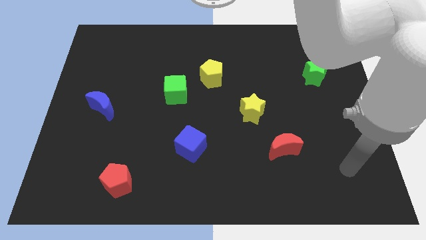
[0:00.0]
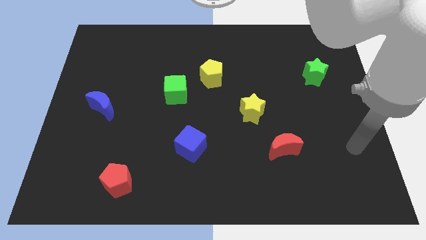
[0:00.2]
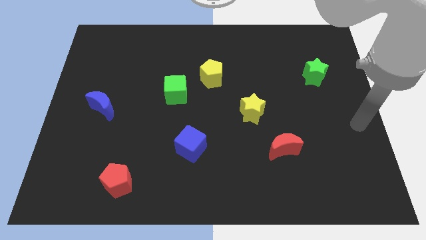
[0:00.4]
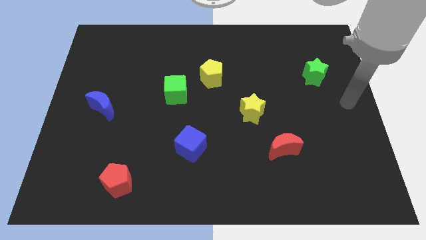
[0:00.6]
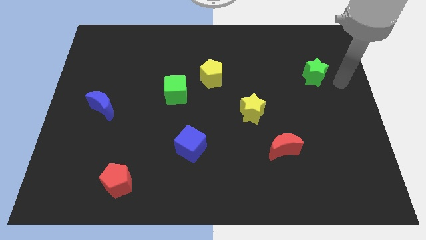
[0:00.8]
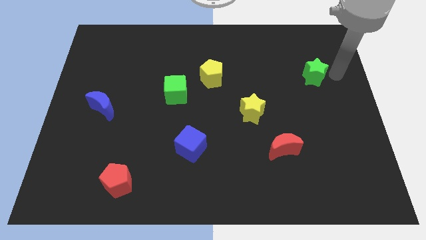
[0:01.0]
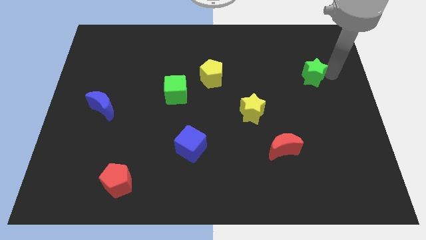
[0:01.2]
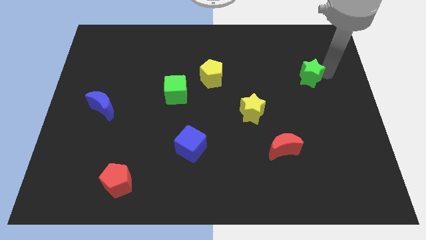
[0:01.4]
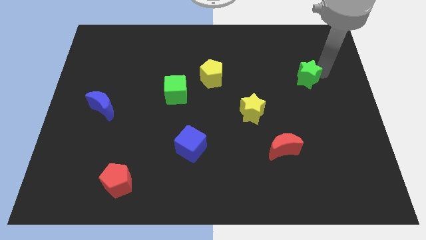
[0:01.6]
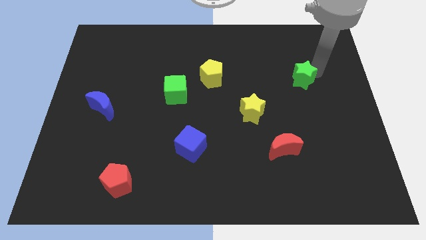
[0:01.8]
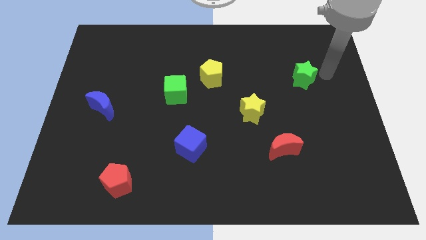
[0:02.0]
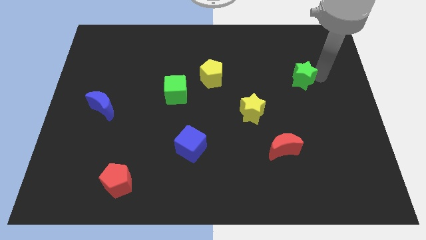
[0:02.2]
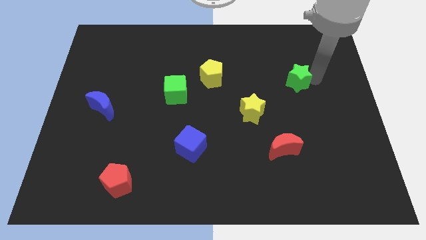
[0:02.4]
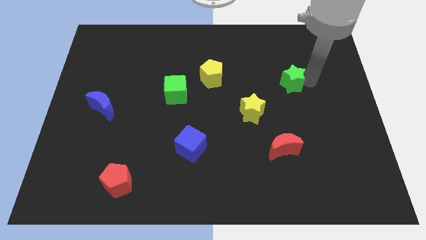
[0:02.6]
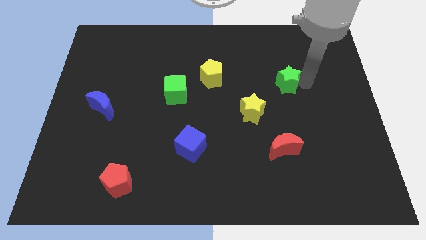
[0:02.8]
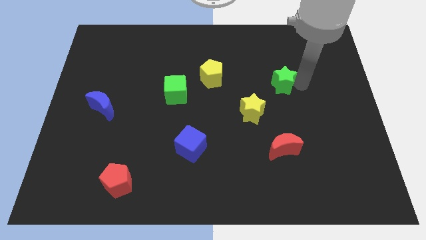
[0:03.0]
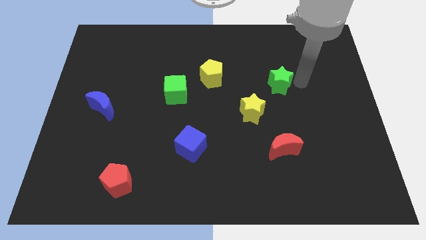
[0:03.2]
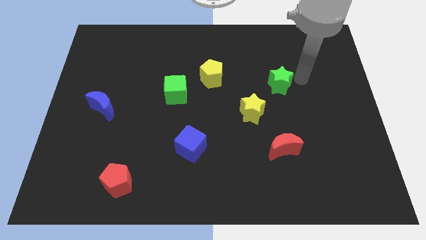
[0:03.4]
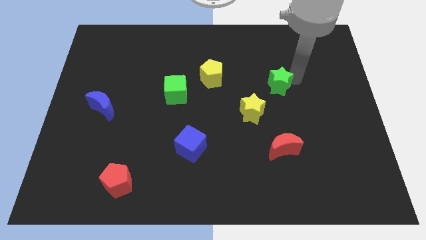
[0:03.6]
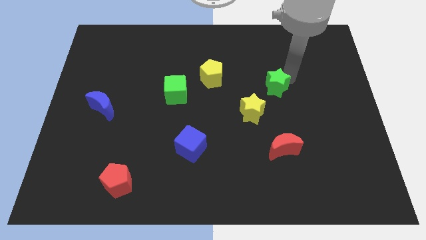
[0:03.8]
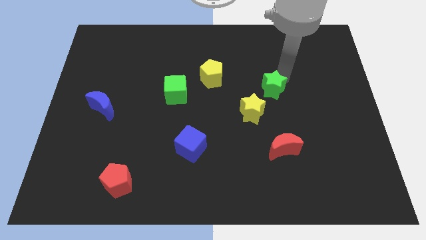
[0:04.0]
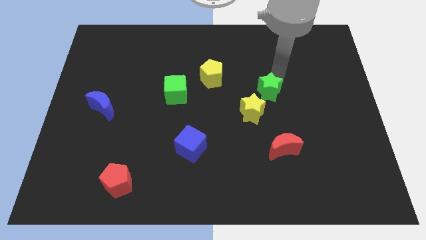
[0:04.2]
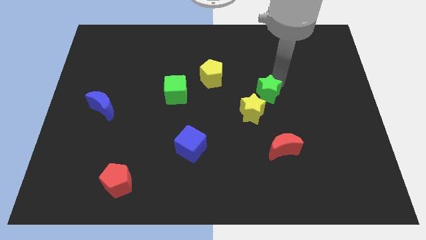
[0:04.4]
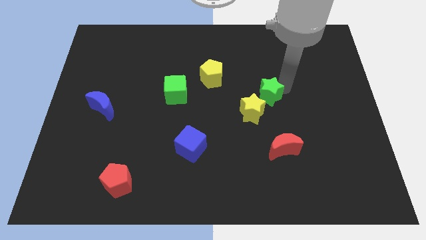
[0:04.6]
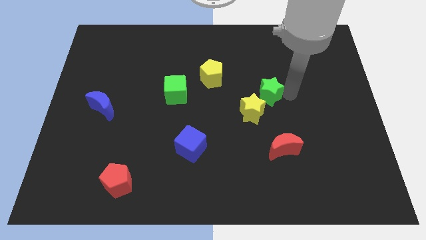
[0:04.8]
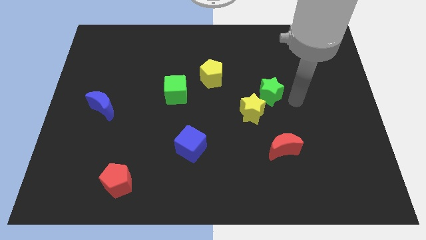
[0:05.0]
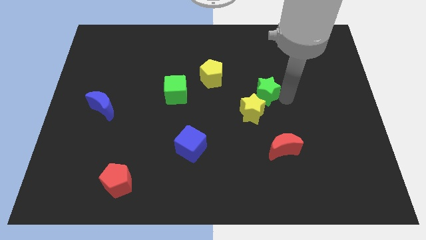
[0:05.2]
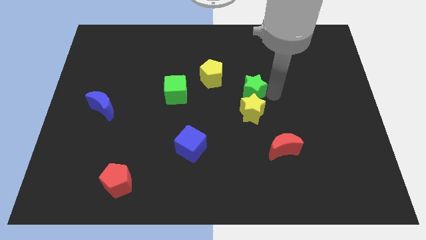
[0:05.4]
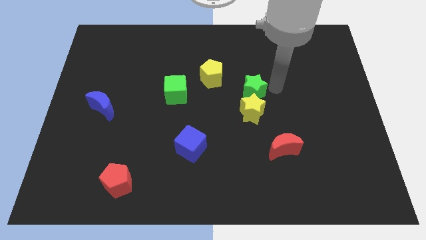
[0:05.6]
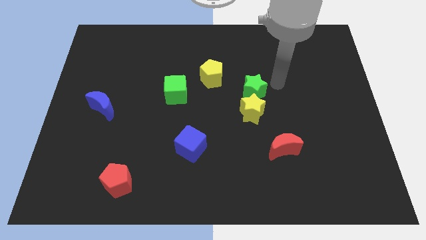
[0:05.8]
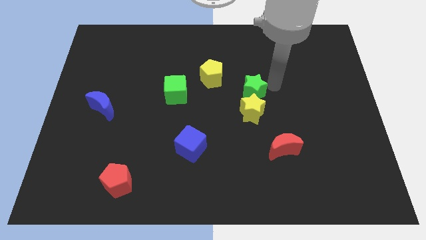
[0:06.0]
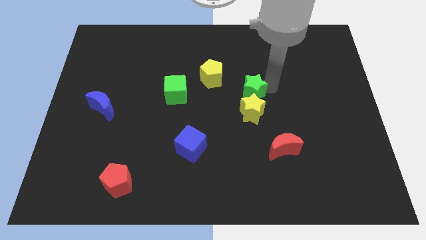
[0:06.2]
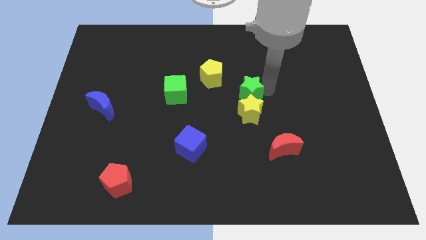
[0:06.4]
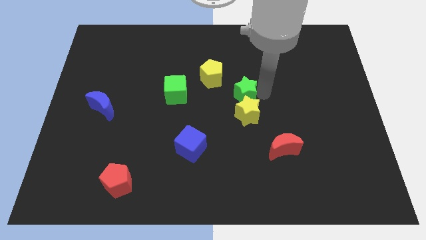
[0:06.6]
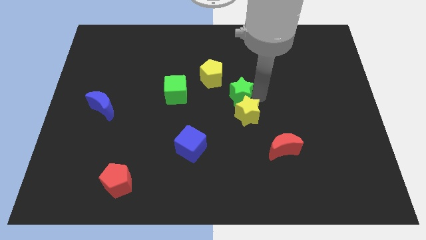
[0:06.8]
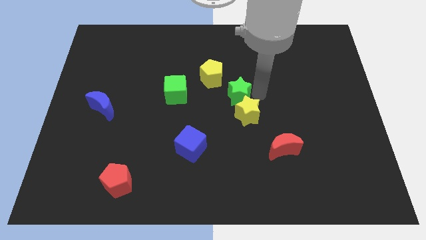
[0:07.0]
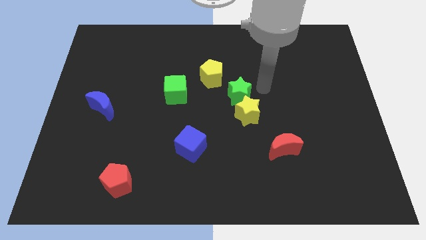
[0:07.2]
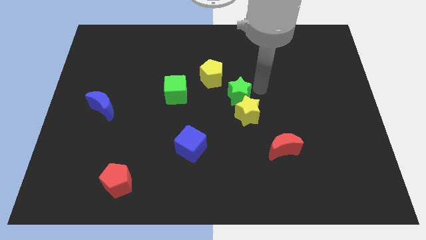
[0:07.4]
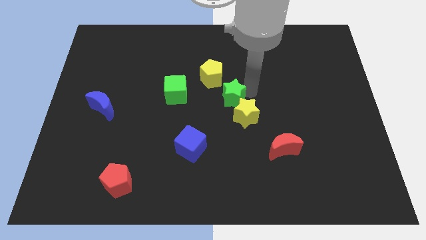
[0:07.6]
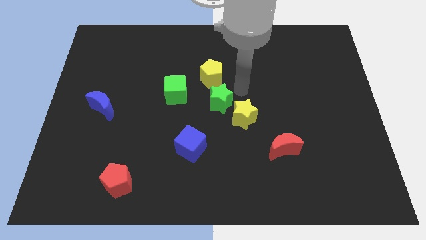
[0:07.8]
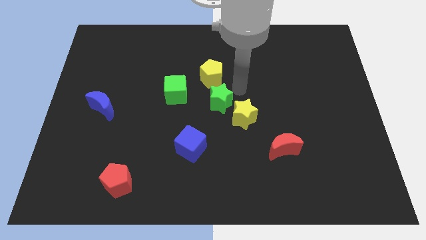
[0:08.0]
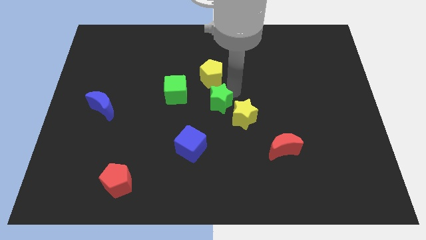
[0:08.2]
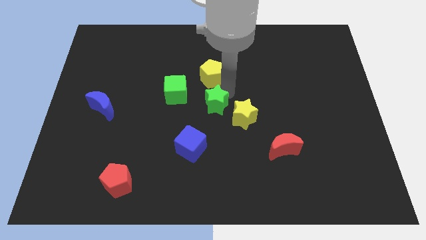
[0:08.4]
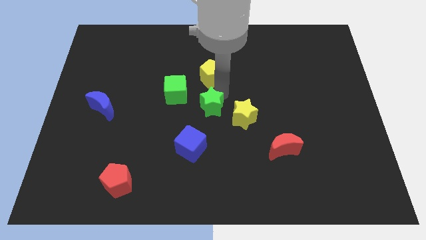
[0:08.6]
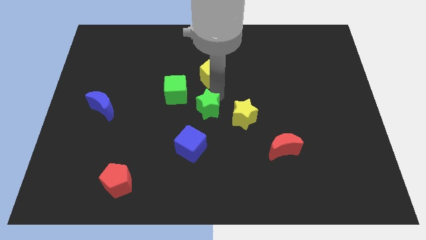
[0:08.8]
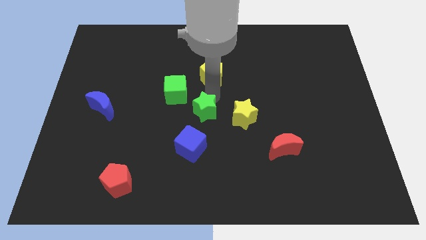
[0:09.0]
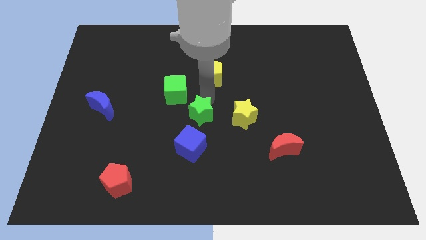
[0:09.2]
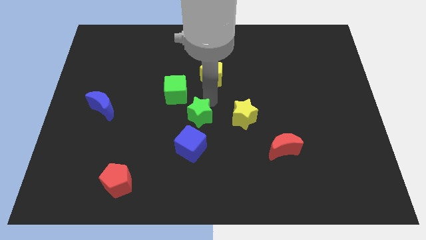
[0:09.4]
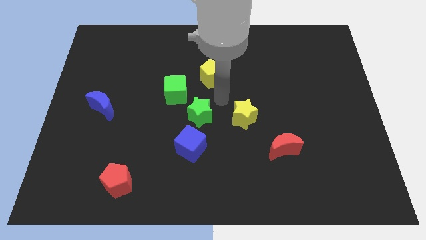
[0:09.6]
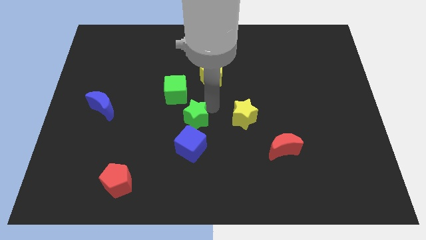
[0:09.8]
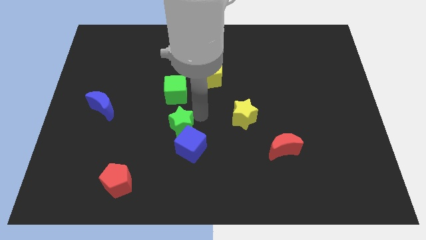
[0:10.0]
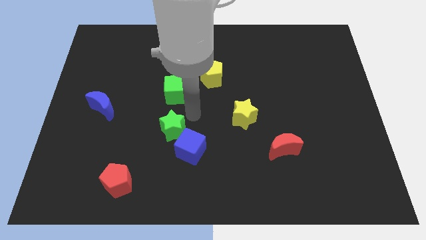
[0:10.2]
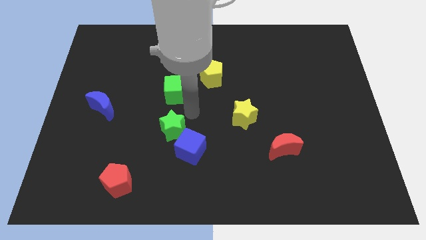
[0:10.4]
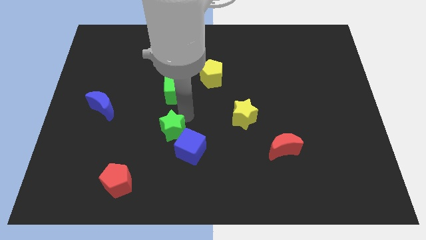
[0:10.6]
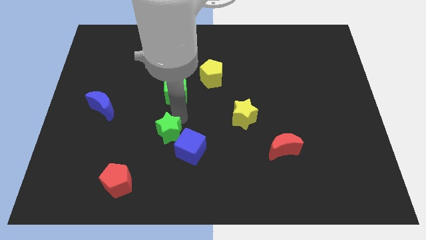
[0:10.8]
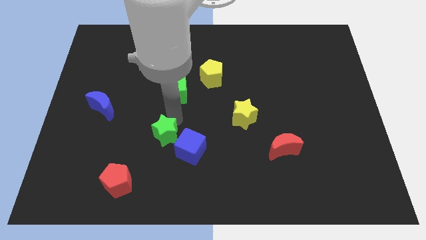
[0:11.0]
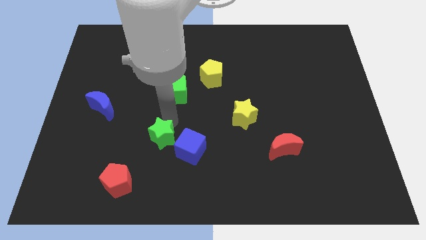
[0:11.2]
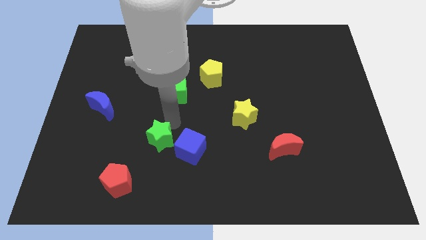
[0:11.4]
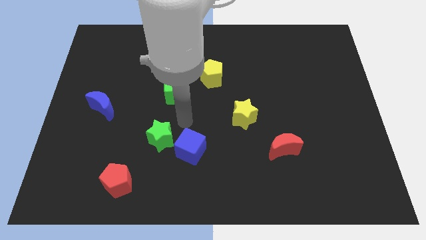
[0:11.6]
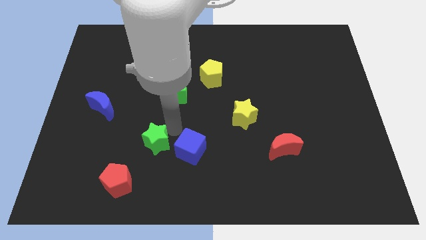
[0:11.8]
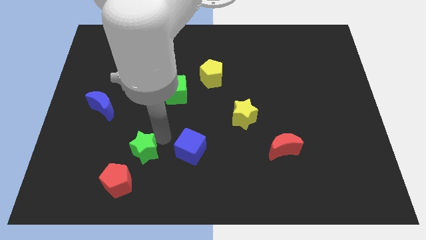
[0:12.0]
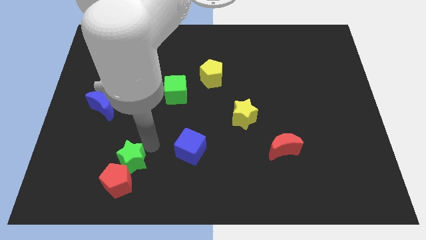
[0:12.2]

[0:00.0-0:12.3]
move the green star to the red pentagon

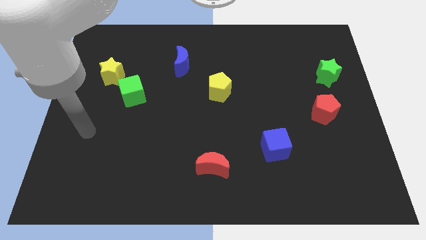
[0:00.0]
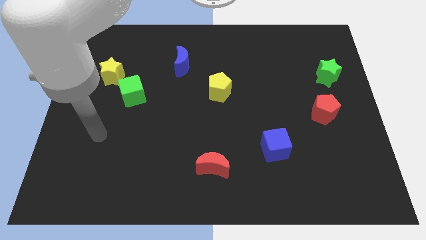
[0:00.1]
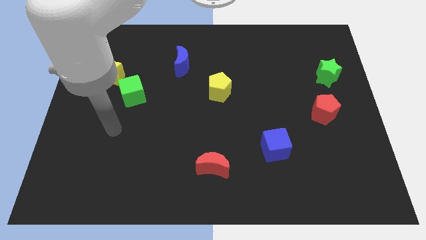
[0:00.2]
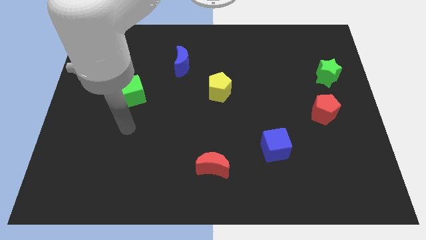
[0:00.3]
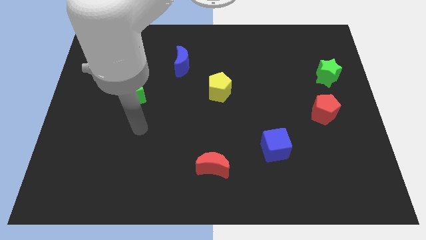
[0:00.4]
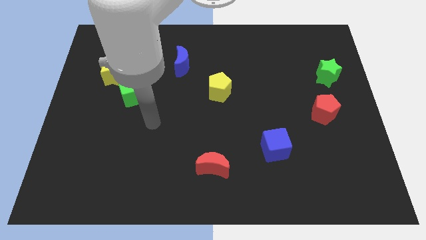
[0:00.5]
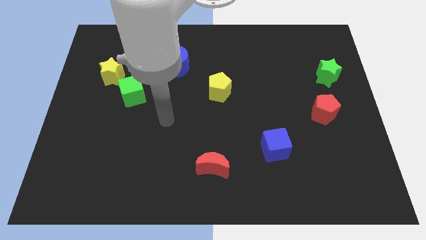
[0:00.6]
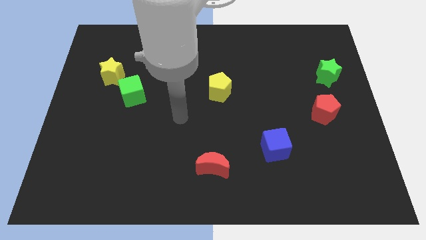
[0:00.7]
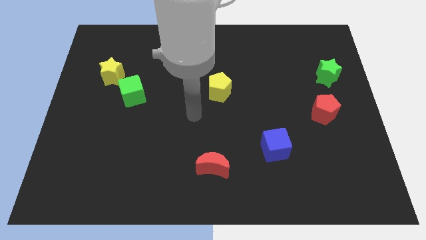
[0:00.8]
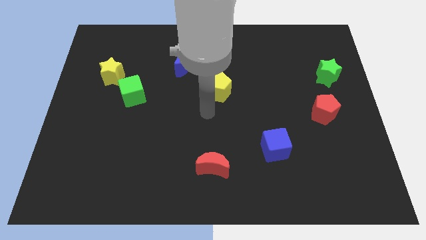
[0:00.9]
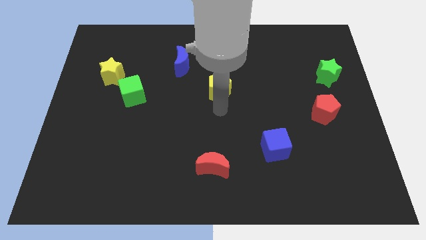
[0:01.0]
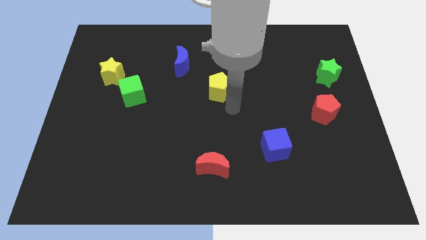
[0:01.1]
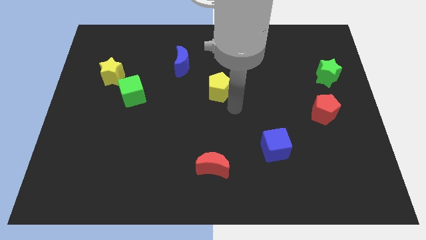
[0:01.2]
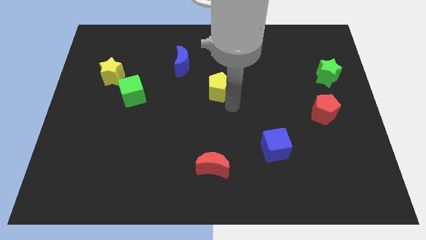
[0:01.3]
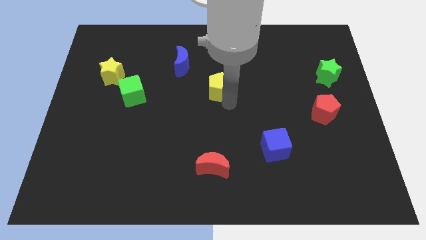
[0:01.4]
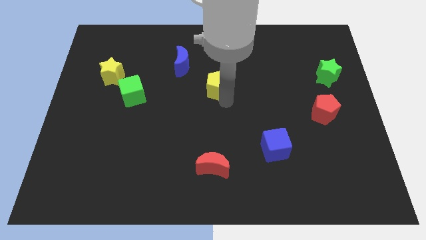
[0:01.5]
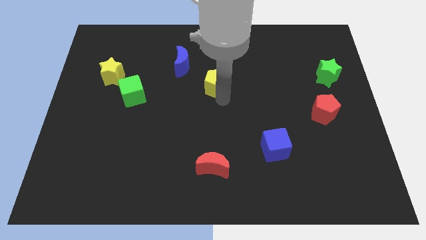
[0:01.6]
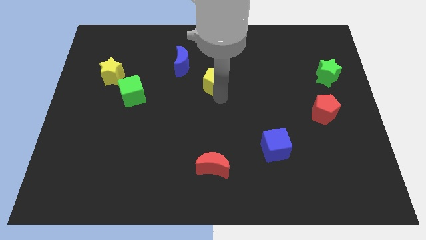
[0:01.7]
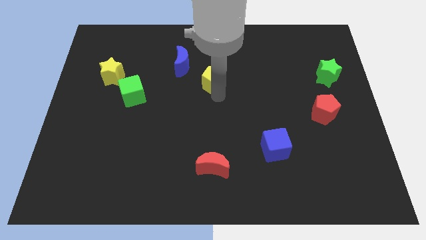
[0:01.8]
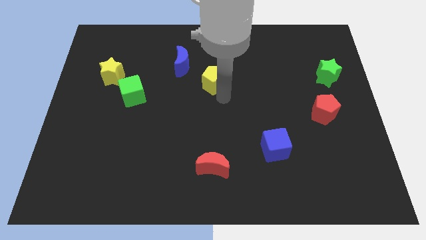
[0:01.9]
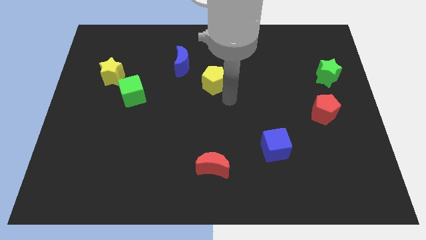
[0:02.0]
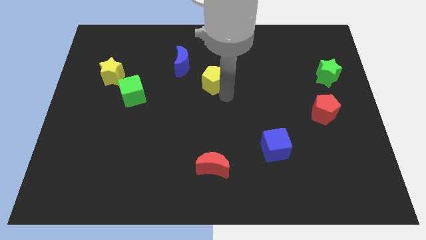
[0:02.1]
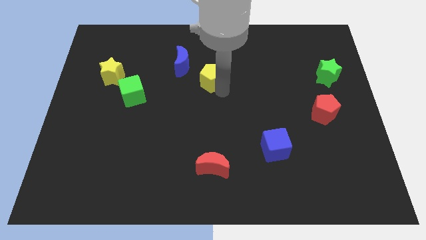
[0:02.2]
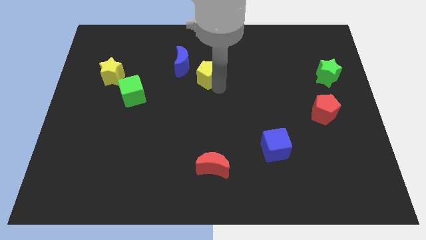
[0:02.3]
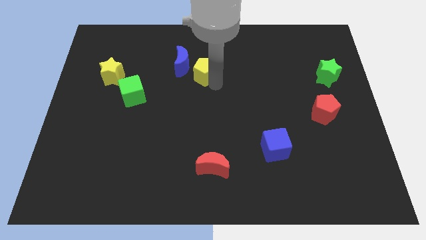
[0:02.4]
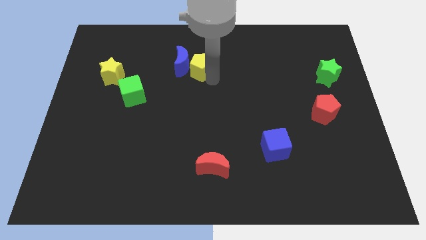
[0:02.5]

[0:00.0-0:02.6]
push the yellow pentagon next to the blue moon
